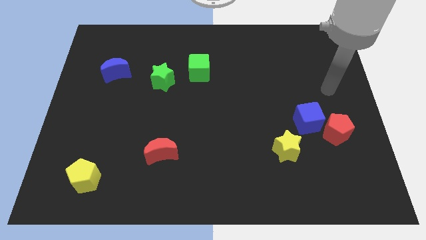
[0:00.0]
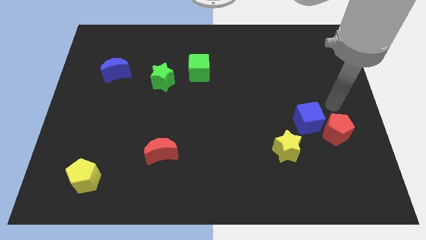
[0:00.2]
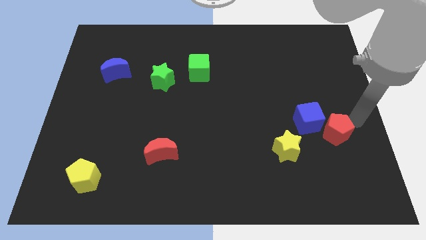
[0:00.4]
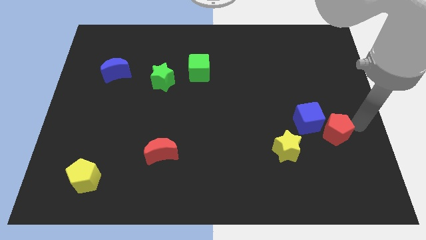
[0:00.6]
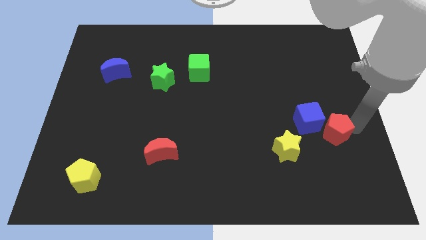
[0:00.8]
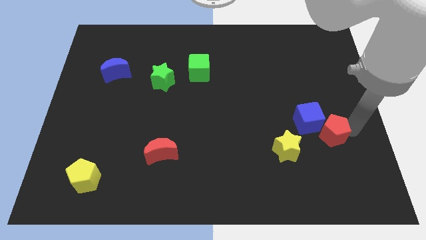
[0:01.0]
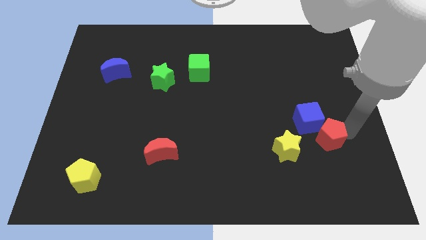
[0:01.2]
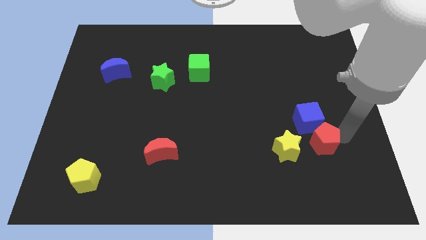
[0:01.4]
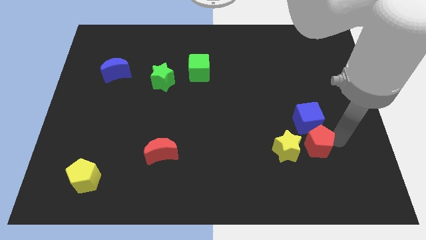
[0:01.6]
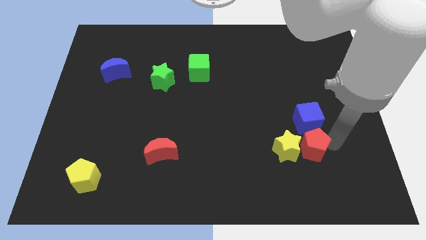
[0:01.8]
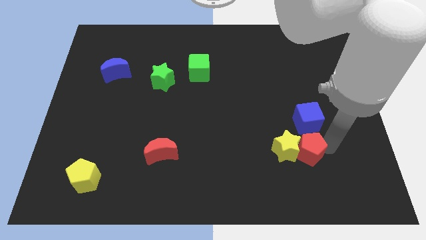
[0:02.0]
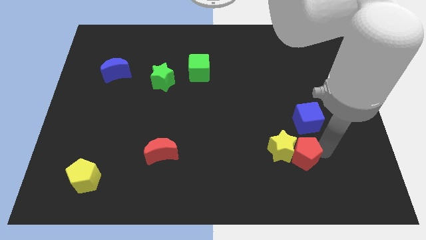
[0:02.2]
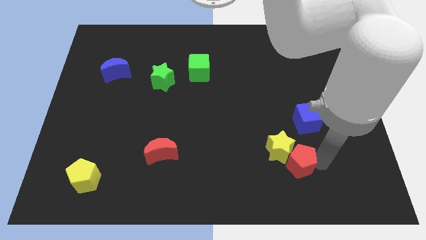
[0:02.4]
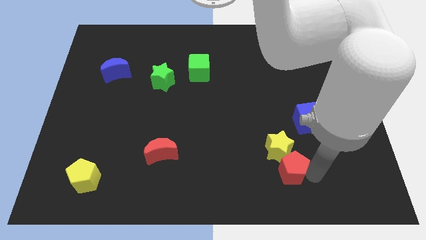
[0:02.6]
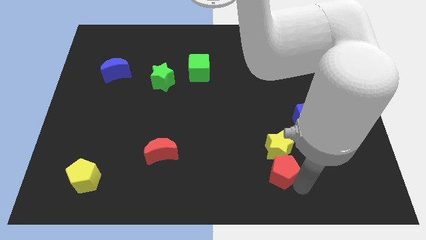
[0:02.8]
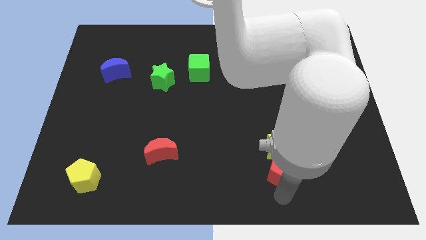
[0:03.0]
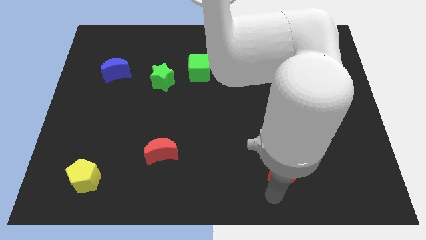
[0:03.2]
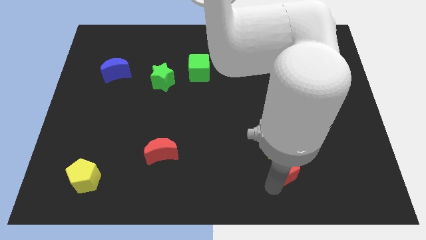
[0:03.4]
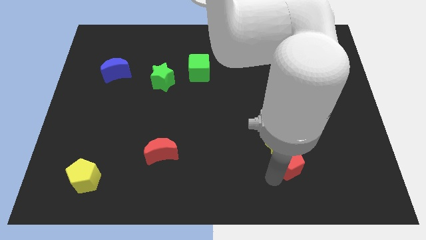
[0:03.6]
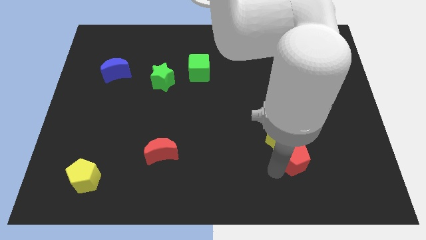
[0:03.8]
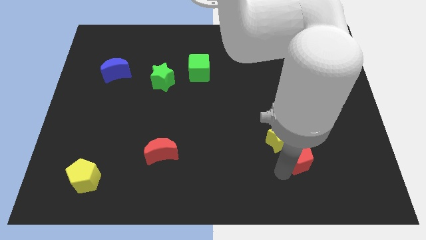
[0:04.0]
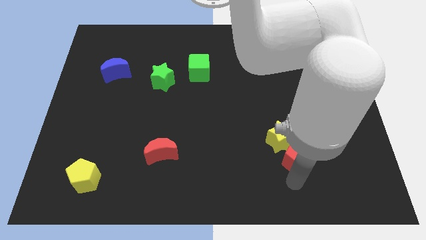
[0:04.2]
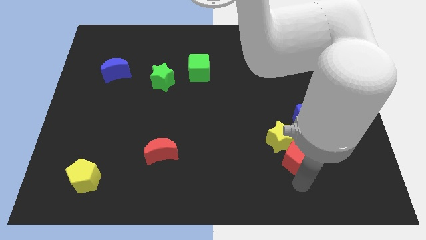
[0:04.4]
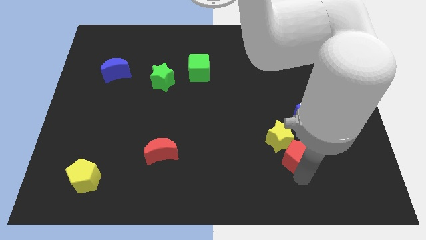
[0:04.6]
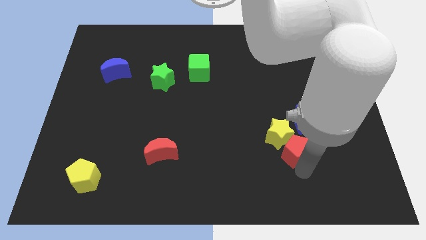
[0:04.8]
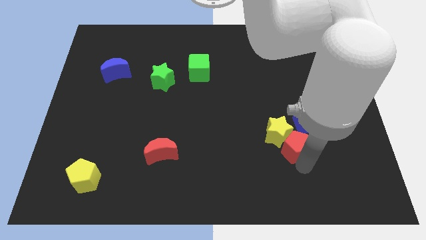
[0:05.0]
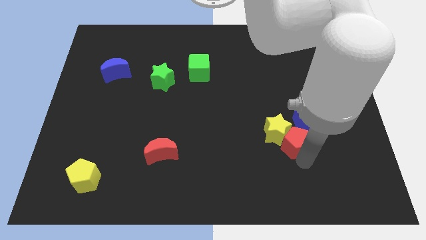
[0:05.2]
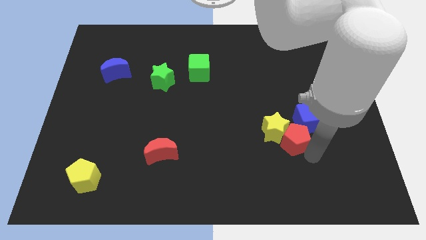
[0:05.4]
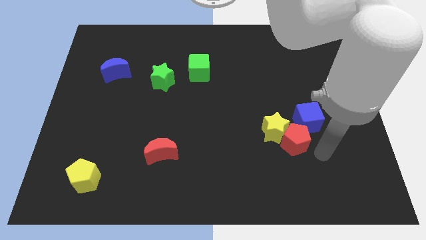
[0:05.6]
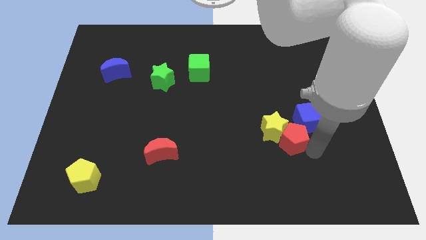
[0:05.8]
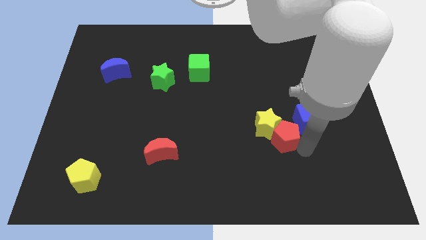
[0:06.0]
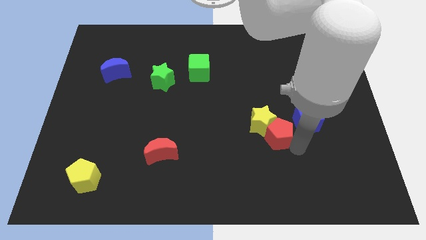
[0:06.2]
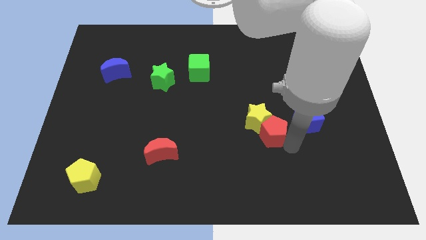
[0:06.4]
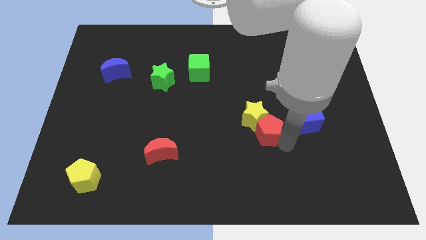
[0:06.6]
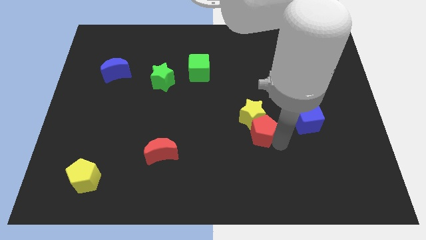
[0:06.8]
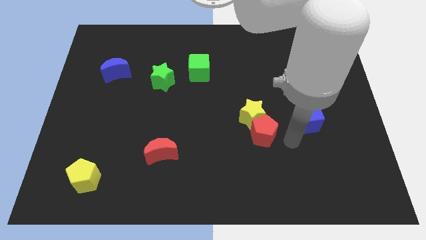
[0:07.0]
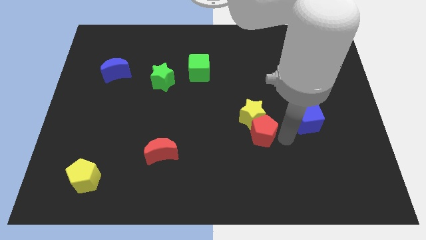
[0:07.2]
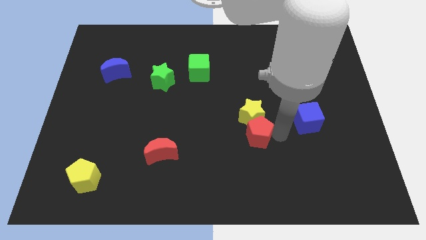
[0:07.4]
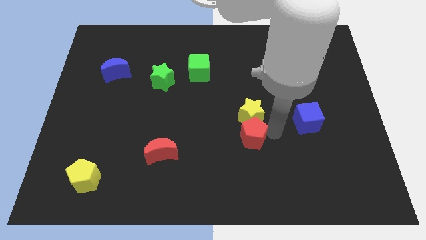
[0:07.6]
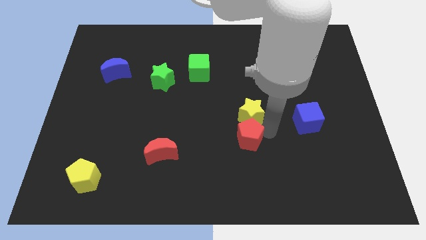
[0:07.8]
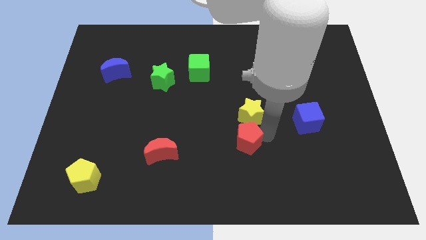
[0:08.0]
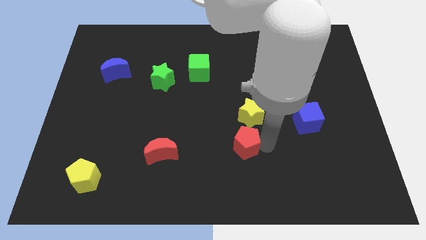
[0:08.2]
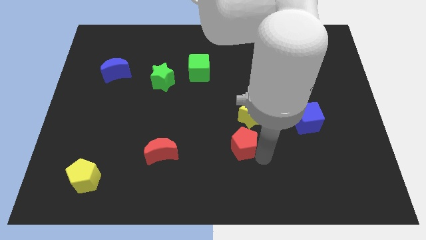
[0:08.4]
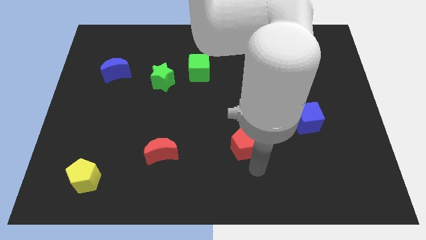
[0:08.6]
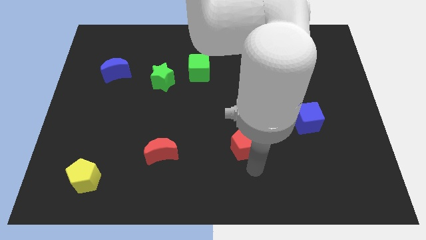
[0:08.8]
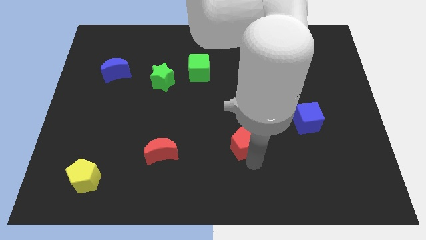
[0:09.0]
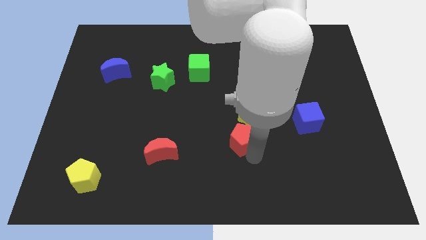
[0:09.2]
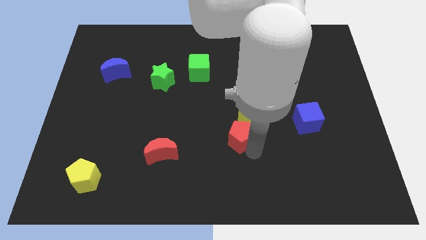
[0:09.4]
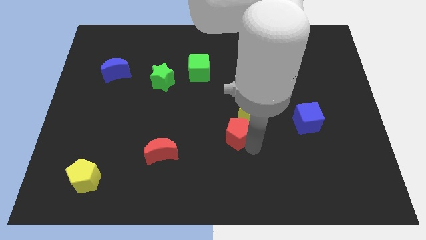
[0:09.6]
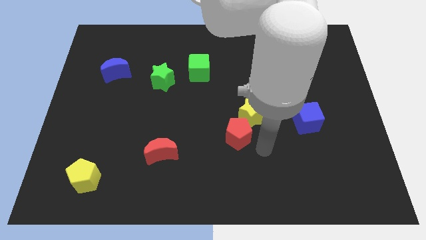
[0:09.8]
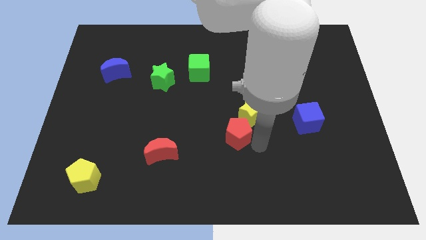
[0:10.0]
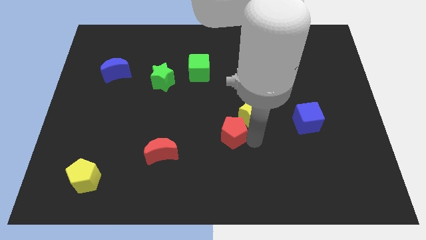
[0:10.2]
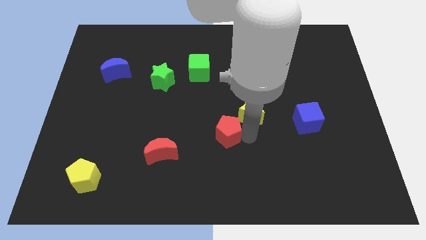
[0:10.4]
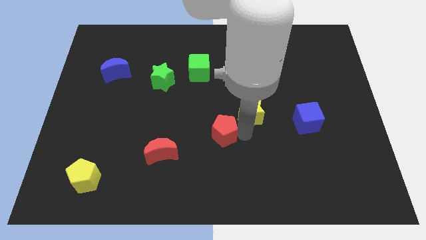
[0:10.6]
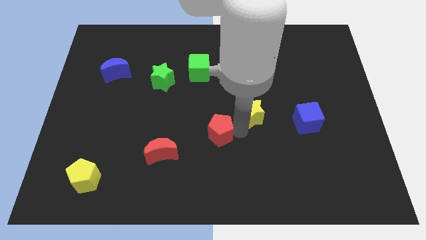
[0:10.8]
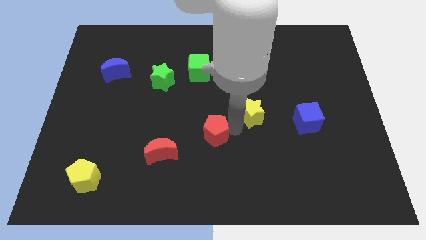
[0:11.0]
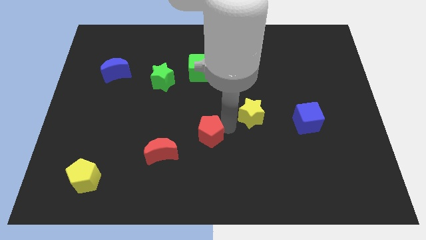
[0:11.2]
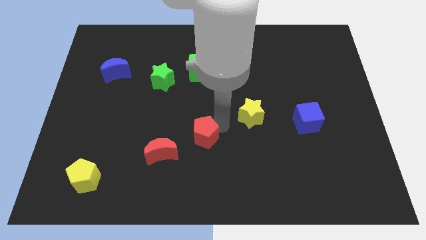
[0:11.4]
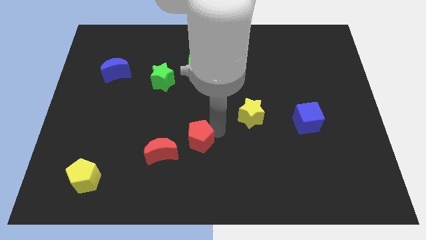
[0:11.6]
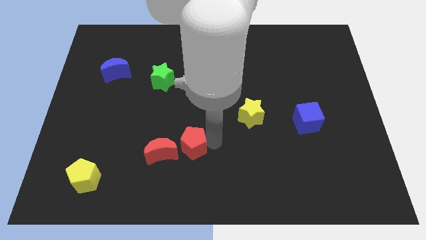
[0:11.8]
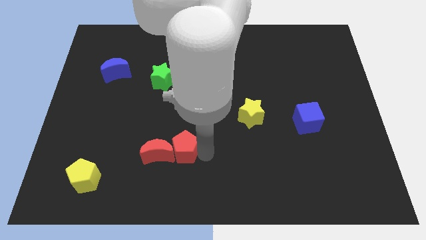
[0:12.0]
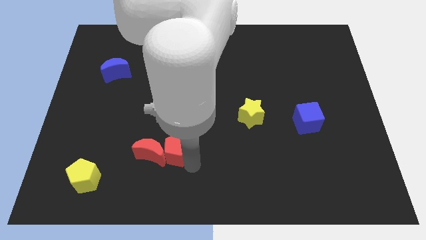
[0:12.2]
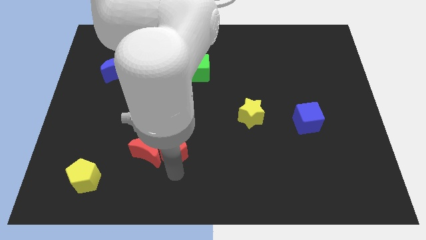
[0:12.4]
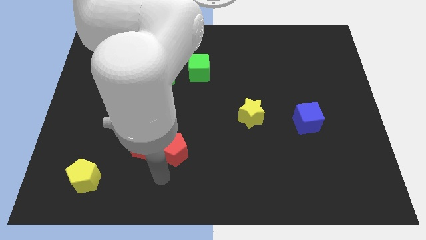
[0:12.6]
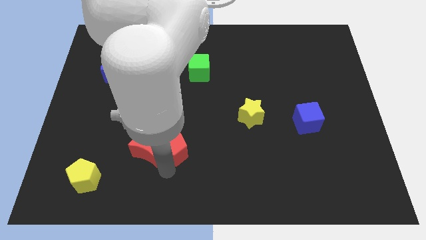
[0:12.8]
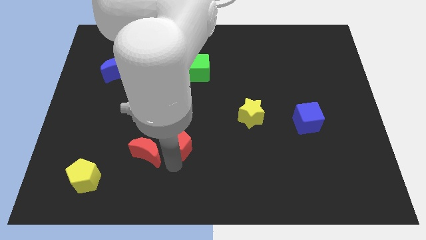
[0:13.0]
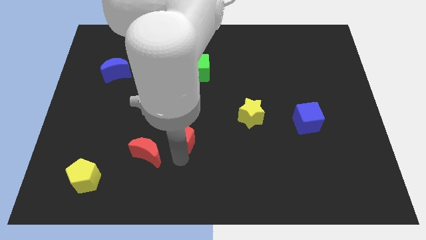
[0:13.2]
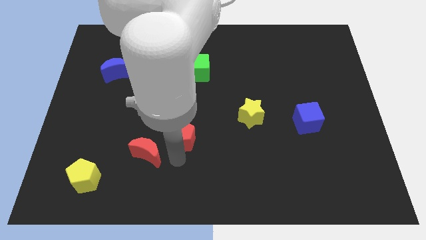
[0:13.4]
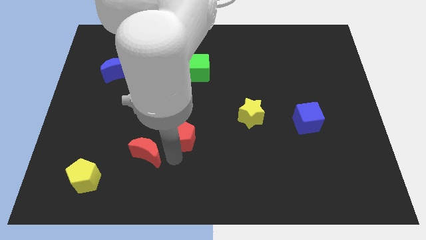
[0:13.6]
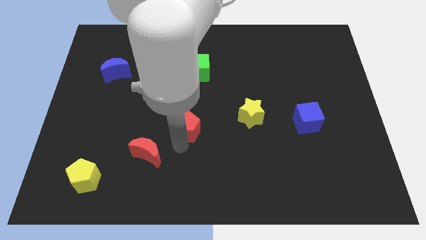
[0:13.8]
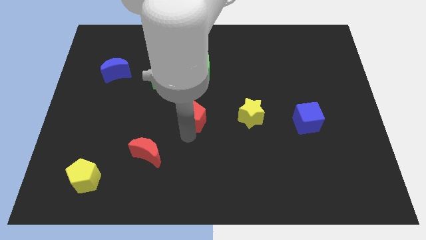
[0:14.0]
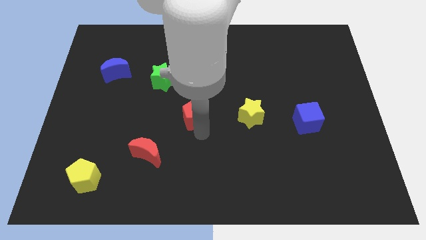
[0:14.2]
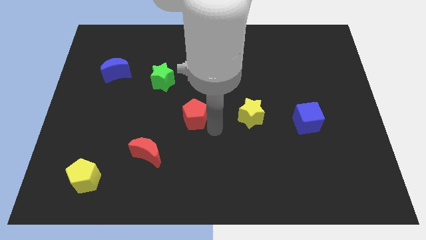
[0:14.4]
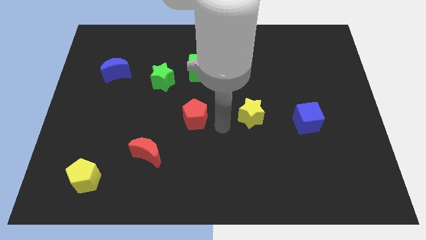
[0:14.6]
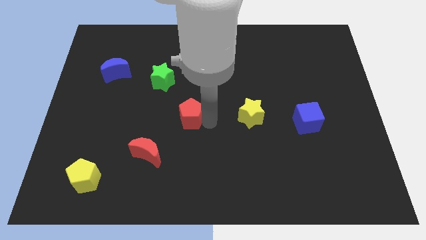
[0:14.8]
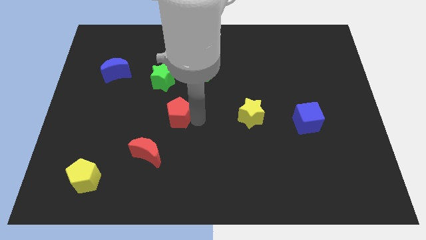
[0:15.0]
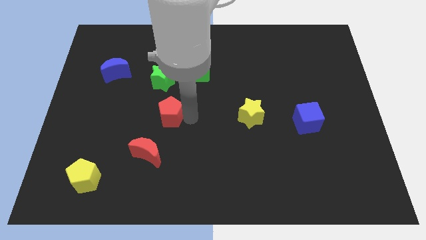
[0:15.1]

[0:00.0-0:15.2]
slide the red pentagon below the green star

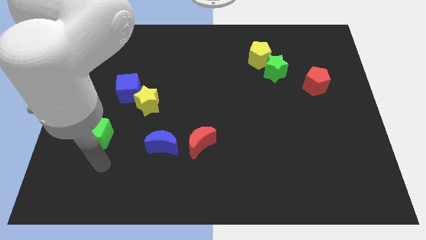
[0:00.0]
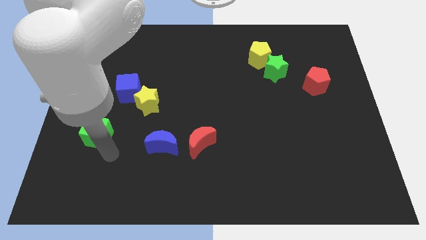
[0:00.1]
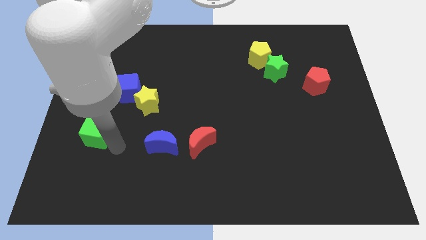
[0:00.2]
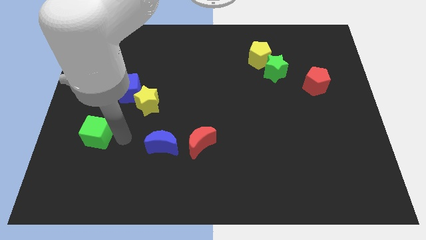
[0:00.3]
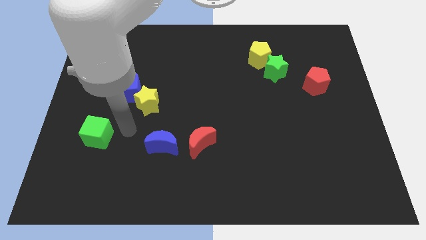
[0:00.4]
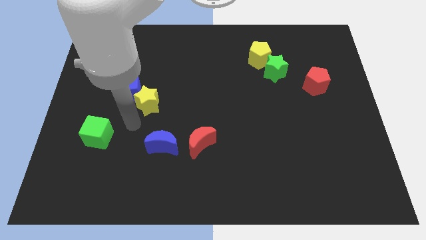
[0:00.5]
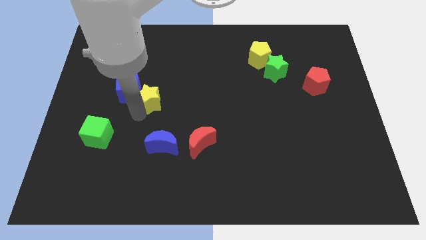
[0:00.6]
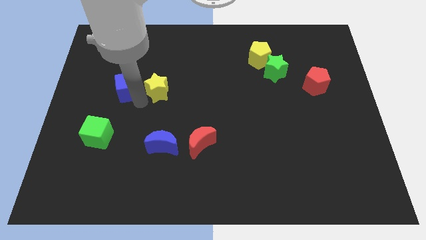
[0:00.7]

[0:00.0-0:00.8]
slide the blue cube to the top of the green cube

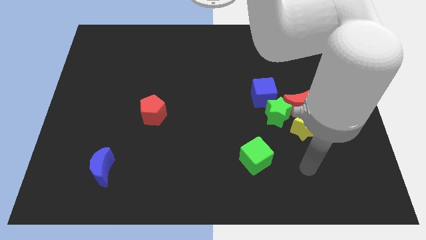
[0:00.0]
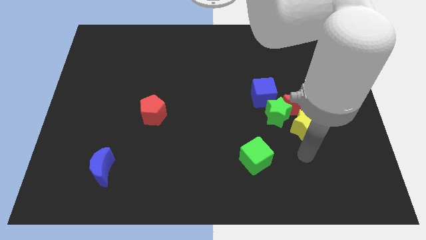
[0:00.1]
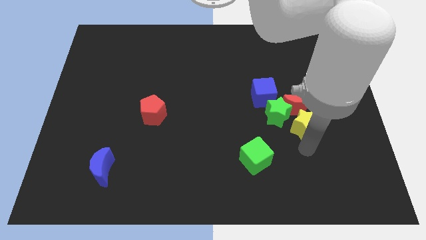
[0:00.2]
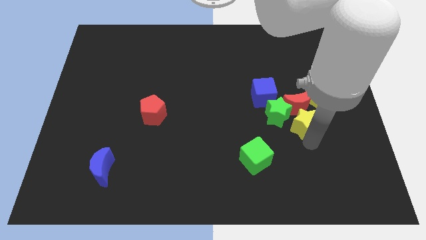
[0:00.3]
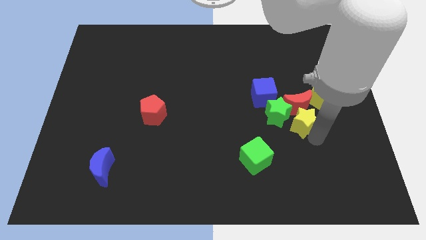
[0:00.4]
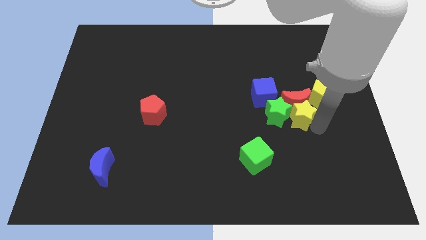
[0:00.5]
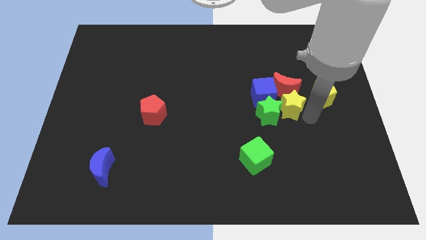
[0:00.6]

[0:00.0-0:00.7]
push the green star to the top side of the green cube
